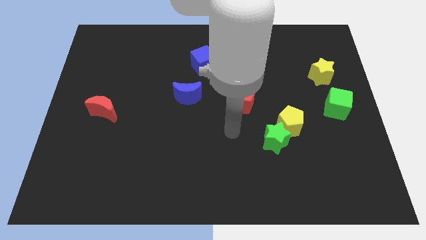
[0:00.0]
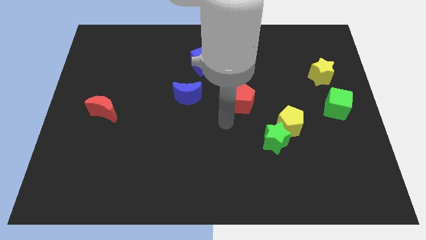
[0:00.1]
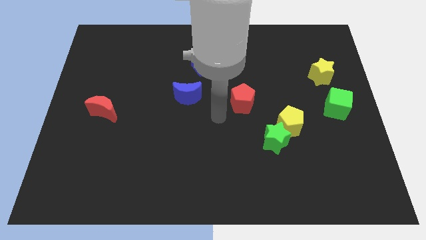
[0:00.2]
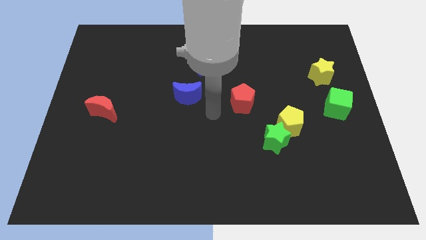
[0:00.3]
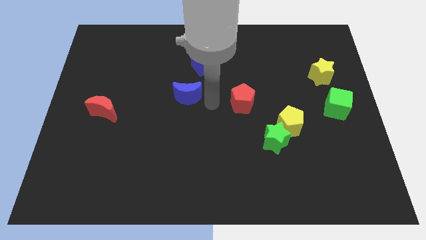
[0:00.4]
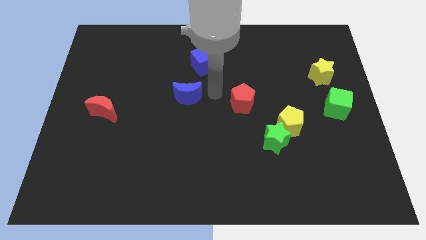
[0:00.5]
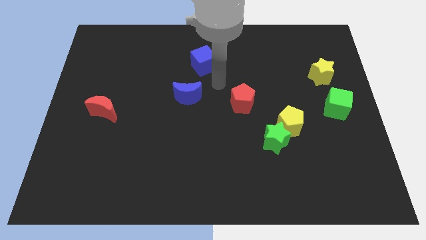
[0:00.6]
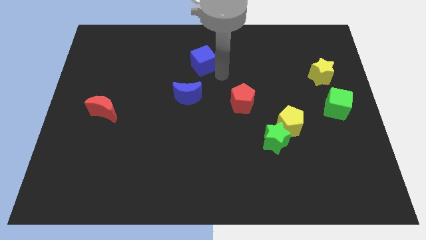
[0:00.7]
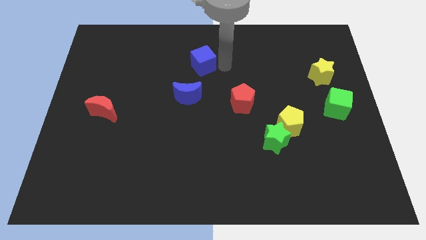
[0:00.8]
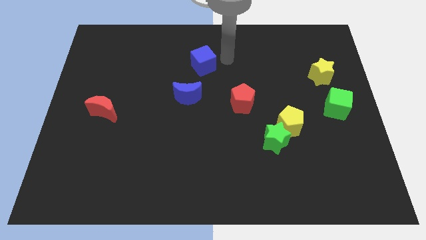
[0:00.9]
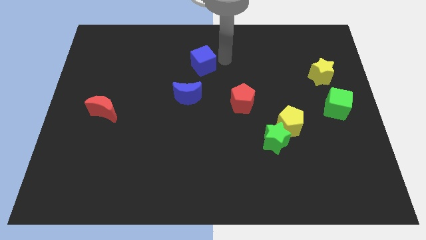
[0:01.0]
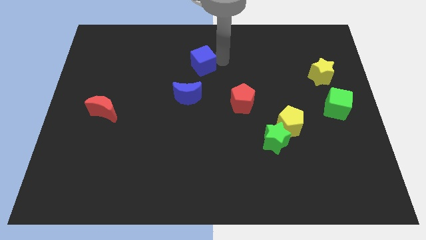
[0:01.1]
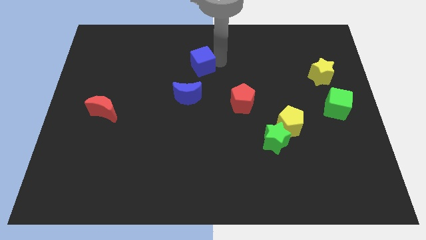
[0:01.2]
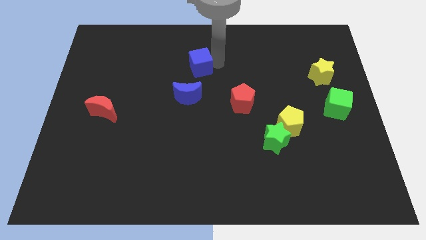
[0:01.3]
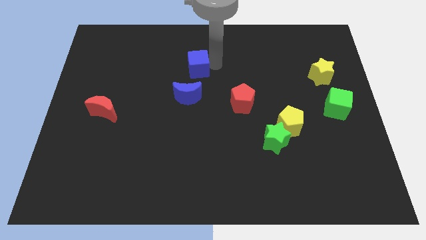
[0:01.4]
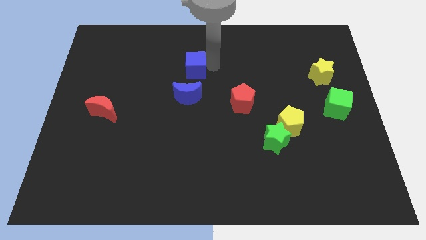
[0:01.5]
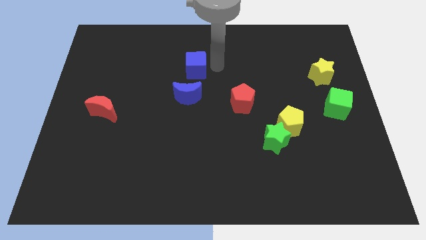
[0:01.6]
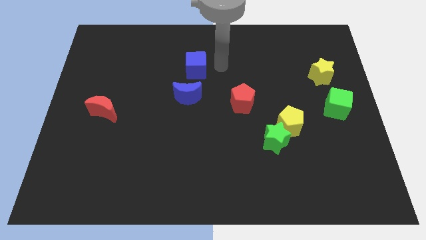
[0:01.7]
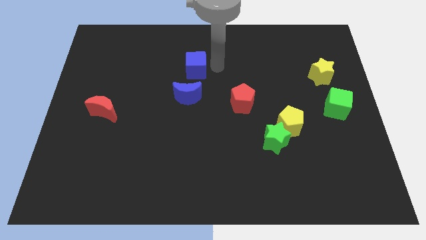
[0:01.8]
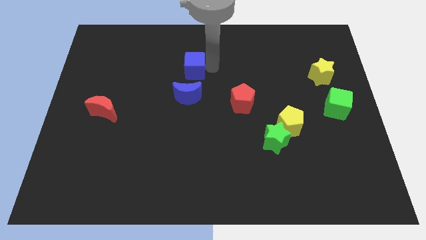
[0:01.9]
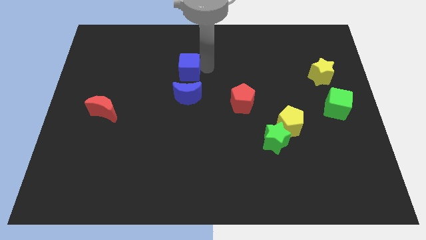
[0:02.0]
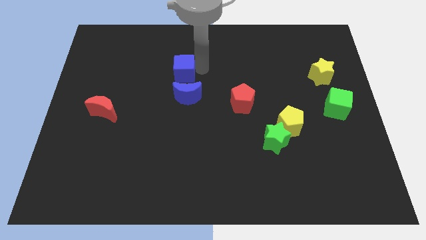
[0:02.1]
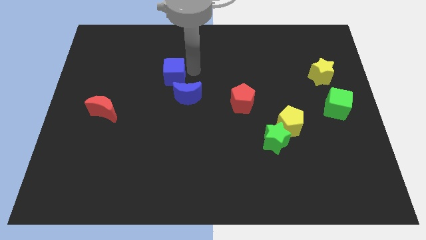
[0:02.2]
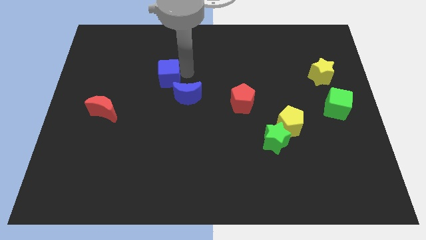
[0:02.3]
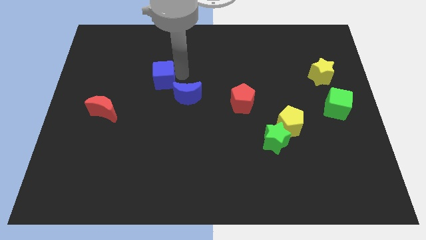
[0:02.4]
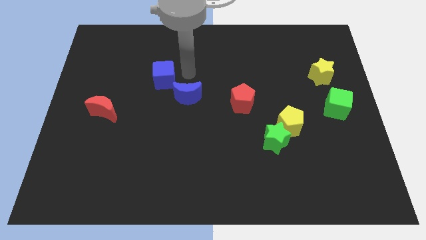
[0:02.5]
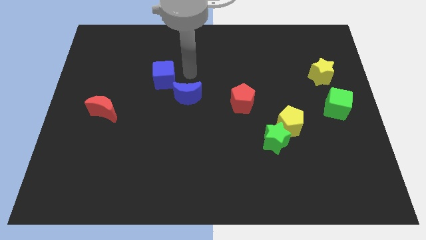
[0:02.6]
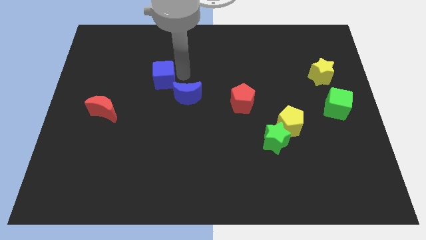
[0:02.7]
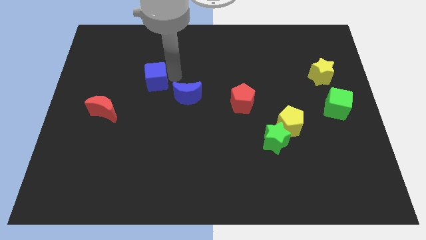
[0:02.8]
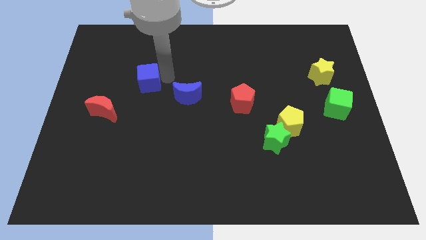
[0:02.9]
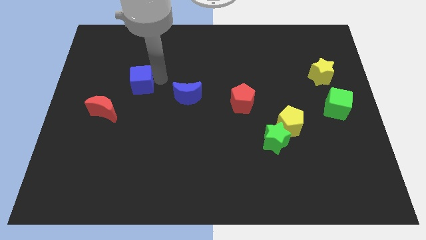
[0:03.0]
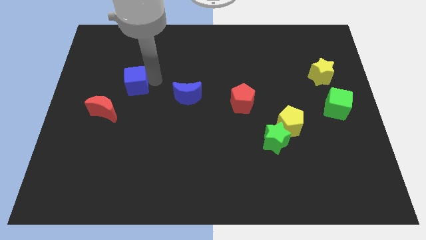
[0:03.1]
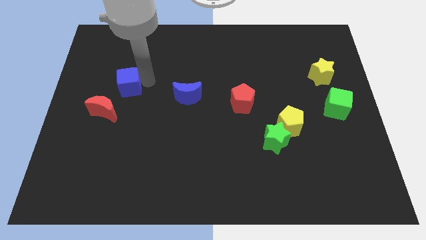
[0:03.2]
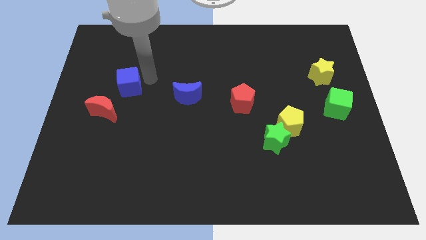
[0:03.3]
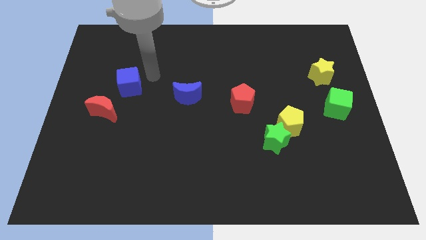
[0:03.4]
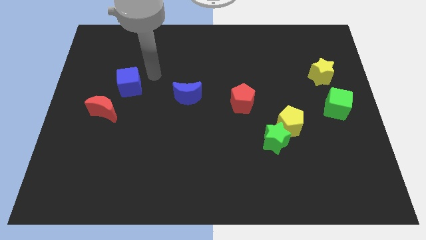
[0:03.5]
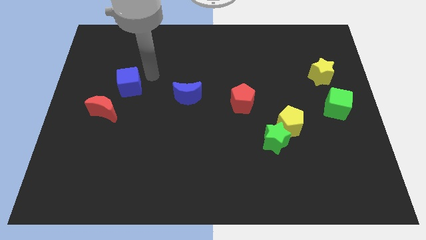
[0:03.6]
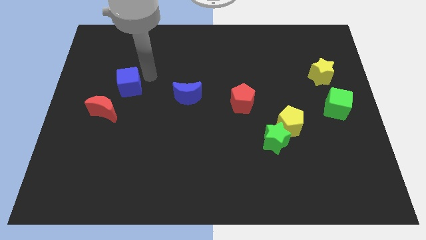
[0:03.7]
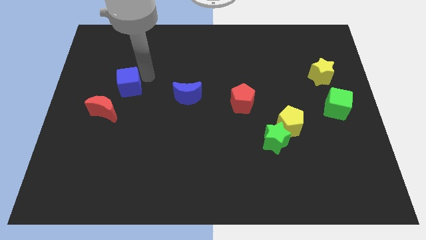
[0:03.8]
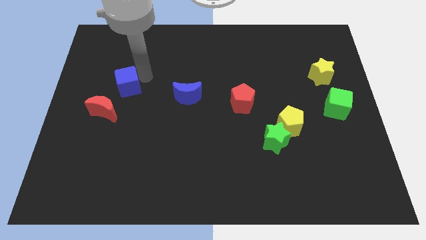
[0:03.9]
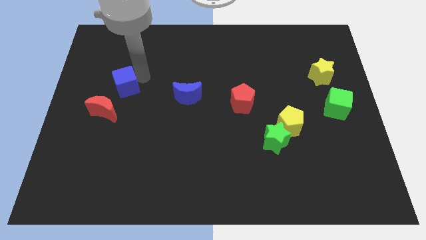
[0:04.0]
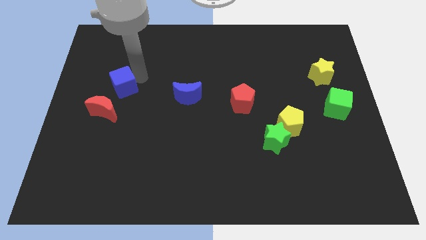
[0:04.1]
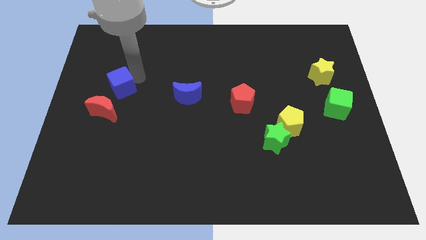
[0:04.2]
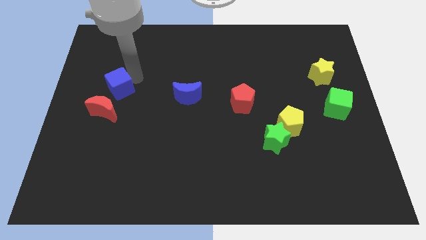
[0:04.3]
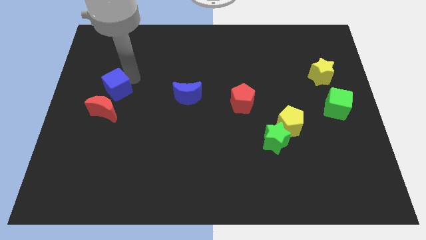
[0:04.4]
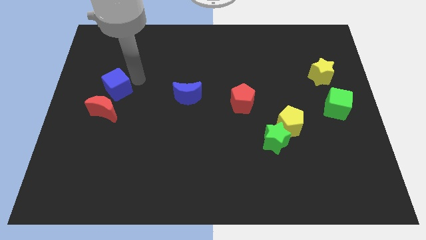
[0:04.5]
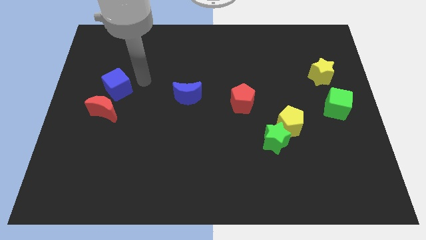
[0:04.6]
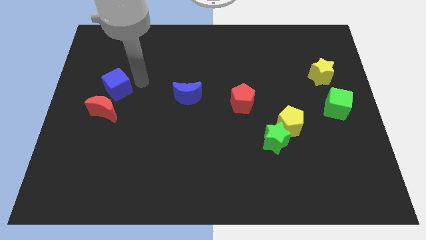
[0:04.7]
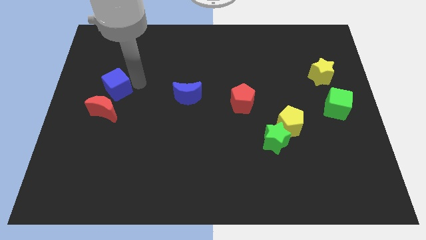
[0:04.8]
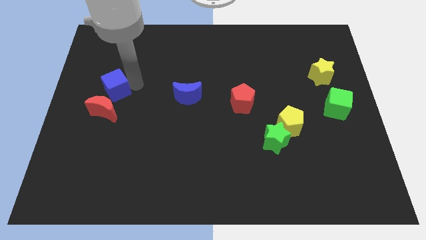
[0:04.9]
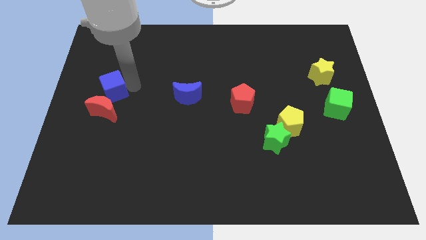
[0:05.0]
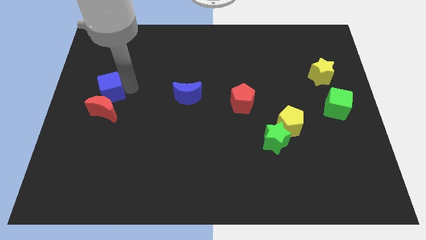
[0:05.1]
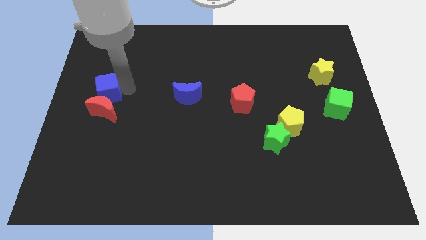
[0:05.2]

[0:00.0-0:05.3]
slide the blue cube to the center left
